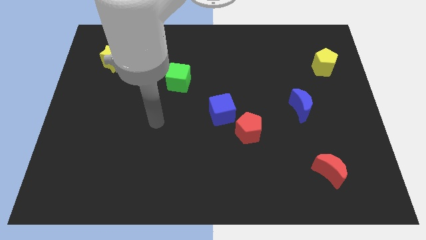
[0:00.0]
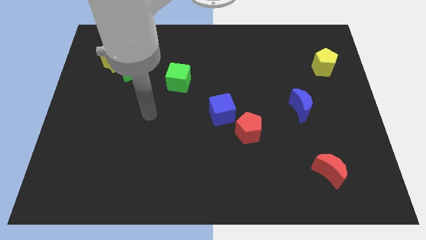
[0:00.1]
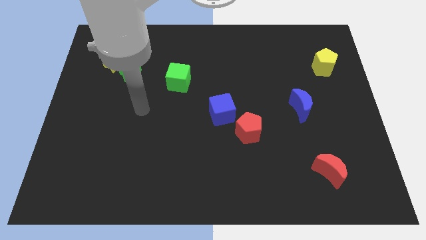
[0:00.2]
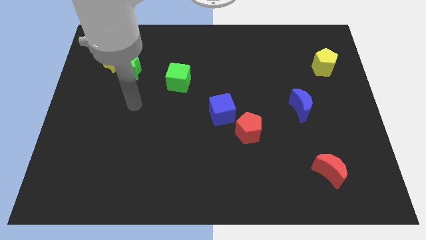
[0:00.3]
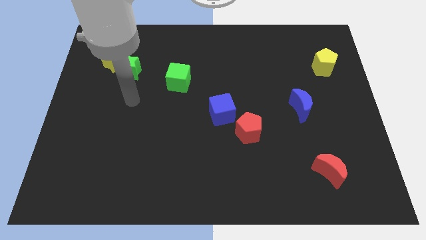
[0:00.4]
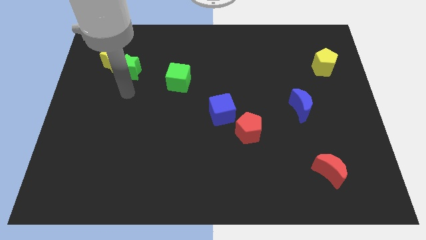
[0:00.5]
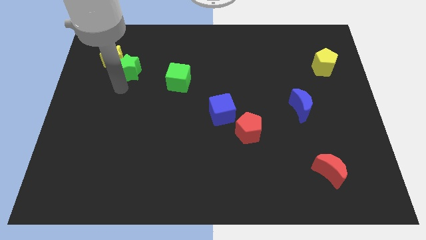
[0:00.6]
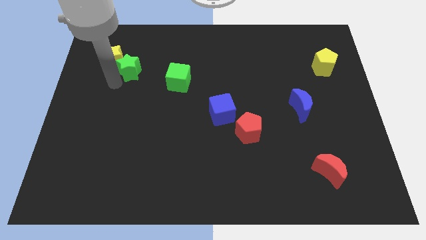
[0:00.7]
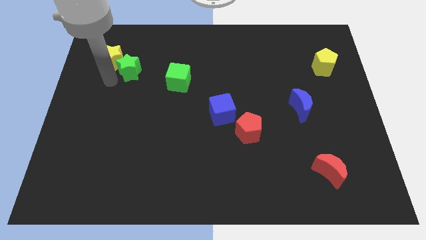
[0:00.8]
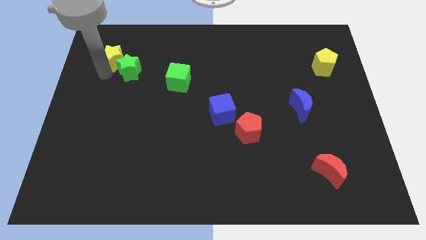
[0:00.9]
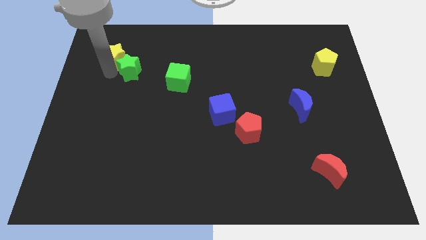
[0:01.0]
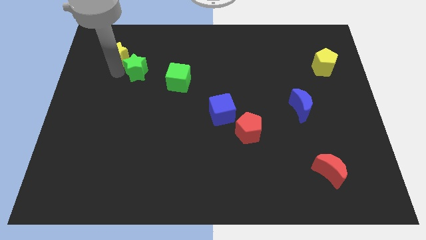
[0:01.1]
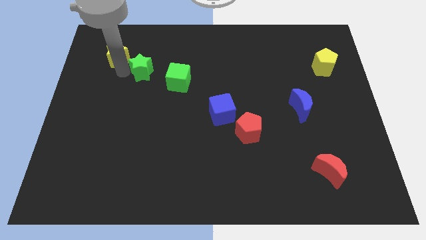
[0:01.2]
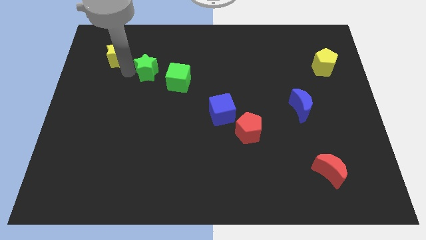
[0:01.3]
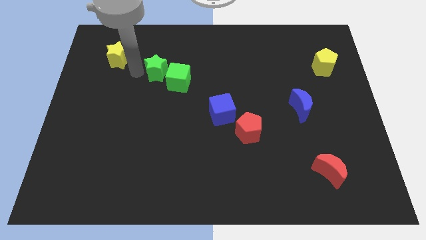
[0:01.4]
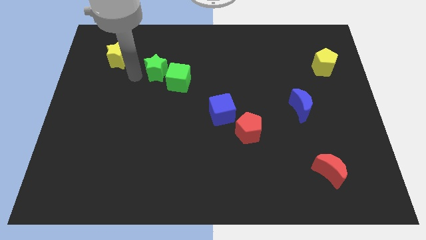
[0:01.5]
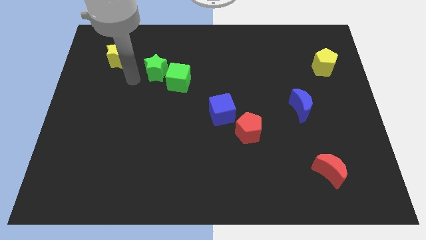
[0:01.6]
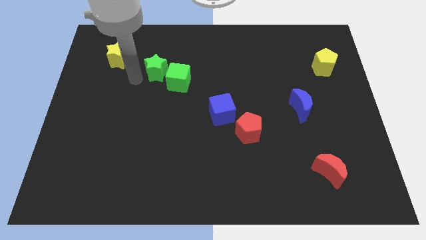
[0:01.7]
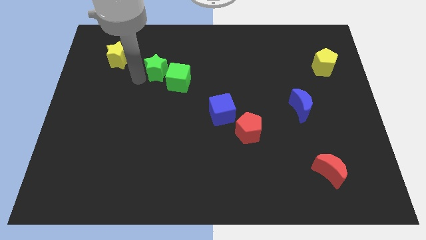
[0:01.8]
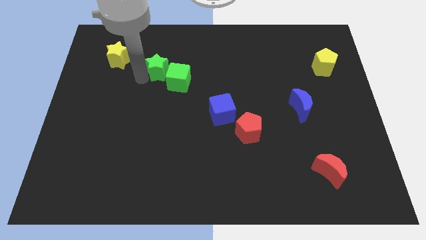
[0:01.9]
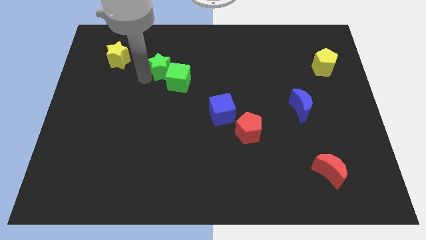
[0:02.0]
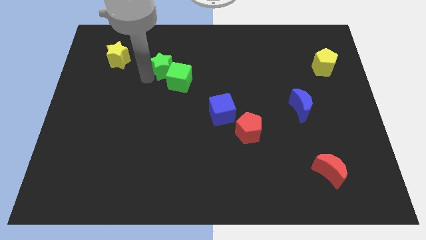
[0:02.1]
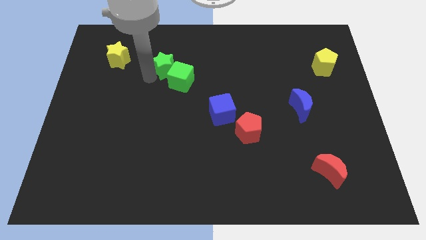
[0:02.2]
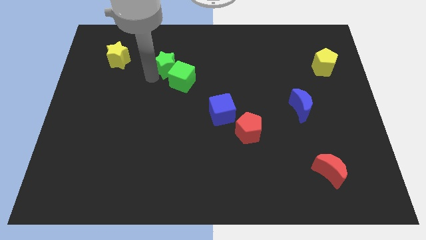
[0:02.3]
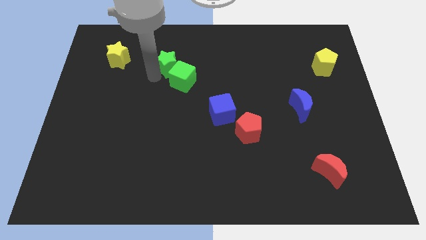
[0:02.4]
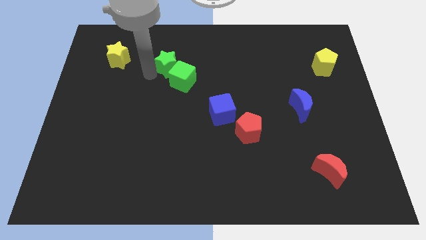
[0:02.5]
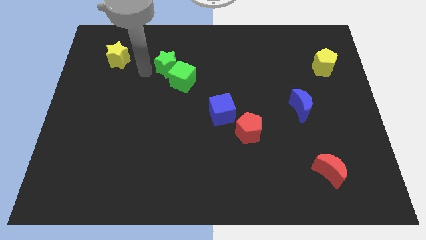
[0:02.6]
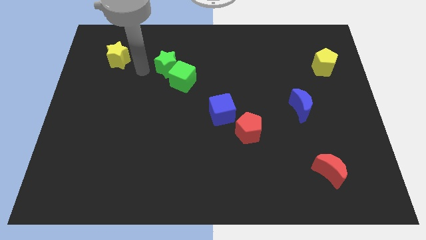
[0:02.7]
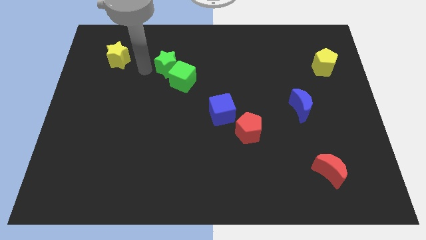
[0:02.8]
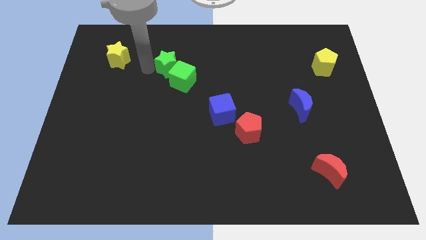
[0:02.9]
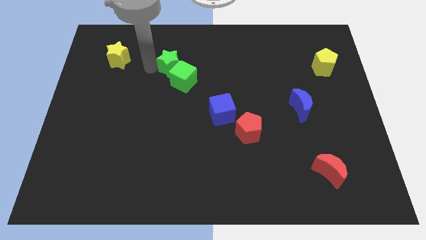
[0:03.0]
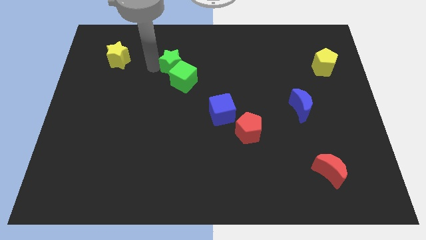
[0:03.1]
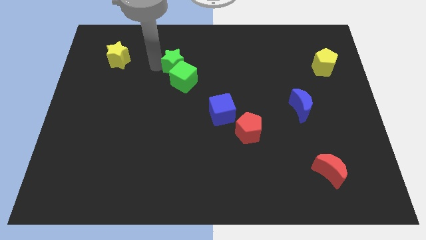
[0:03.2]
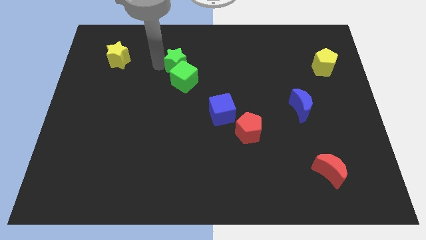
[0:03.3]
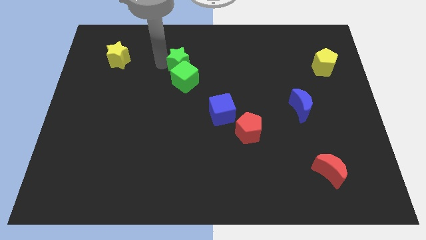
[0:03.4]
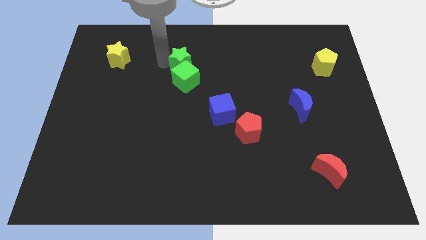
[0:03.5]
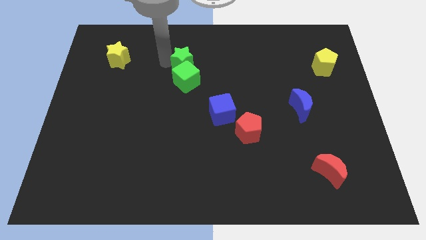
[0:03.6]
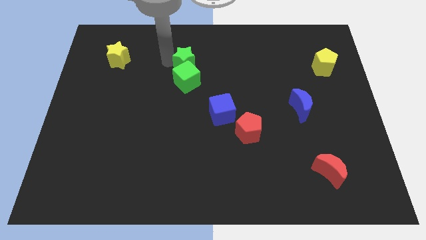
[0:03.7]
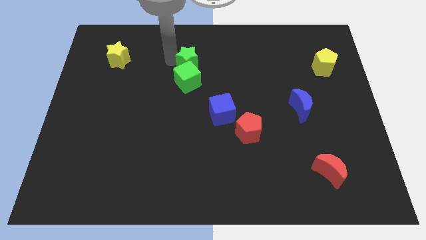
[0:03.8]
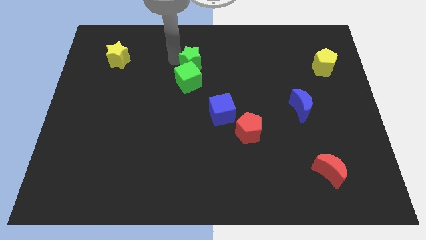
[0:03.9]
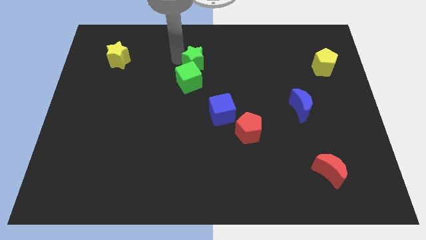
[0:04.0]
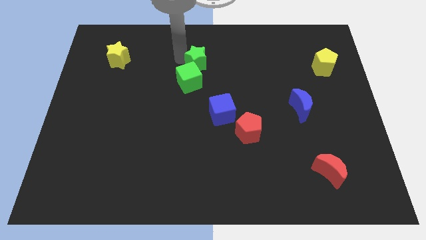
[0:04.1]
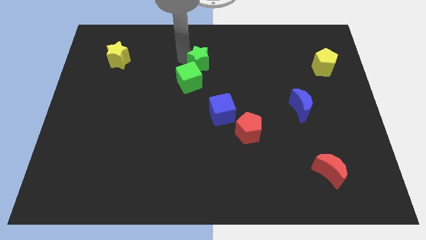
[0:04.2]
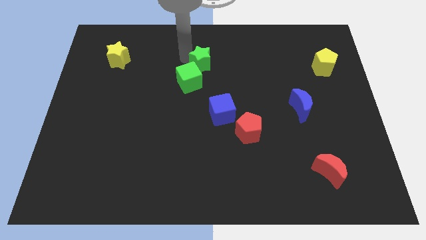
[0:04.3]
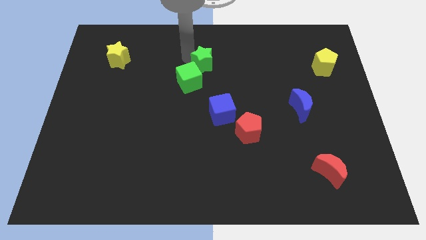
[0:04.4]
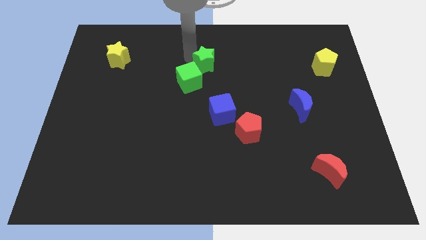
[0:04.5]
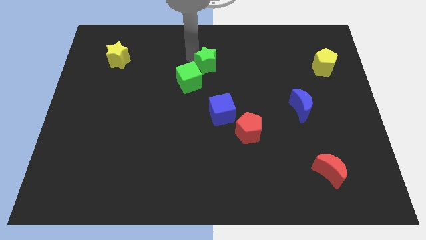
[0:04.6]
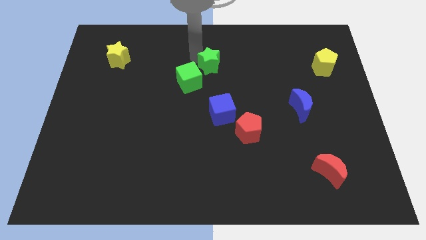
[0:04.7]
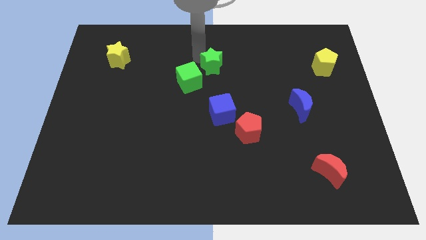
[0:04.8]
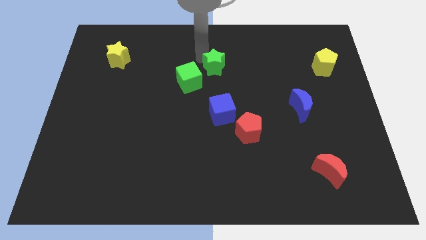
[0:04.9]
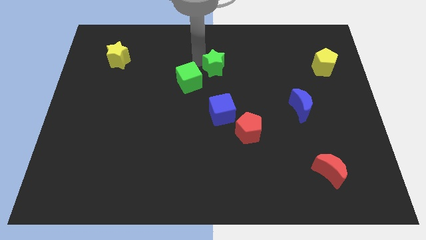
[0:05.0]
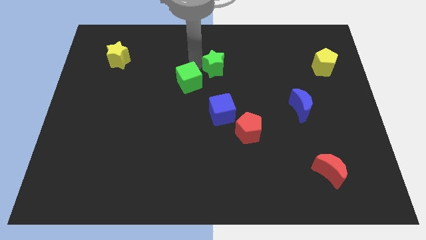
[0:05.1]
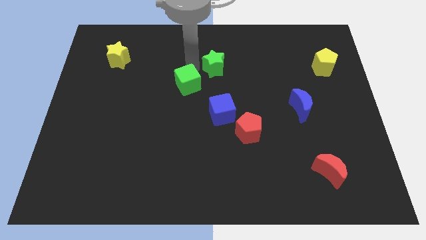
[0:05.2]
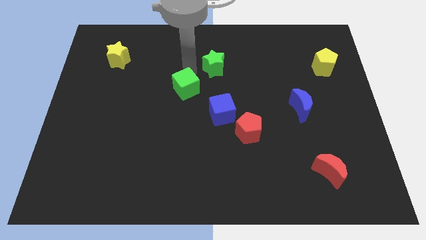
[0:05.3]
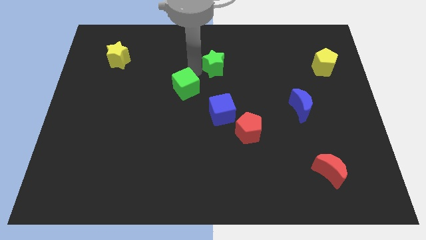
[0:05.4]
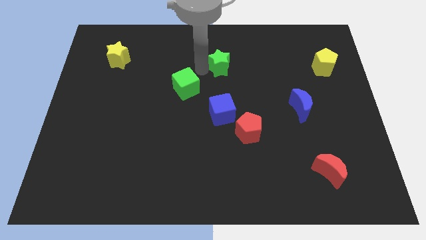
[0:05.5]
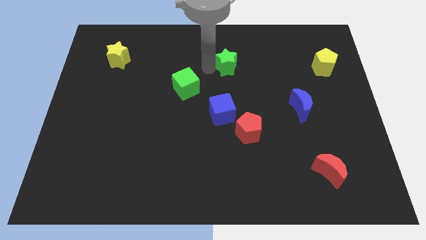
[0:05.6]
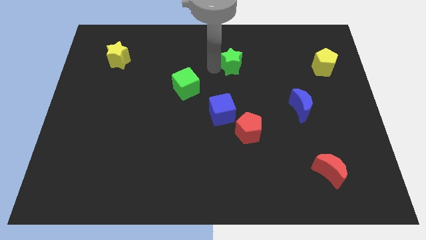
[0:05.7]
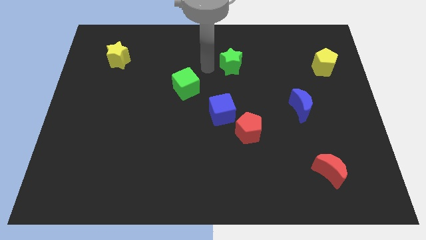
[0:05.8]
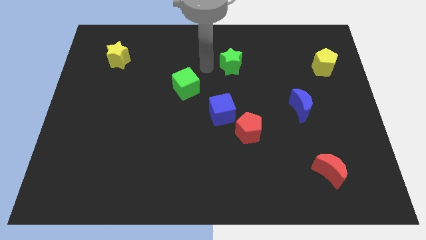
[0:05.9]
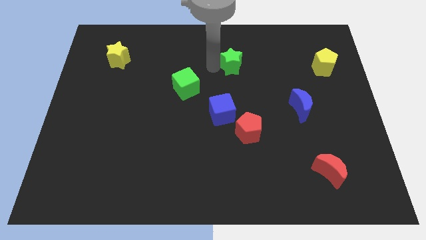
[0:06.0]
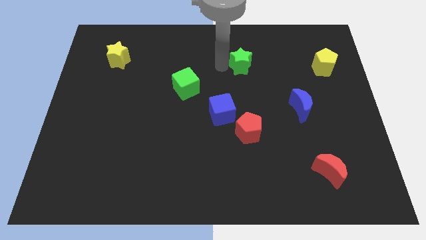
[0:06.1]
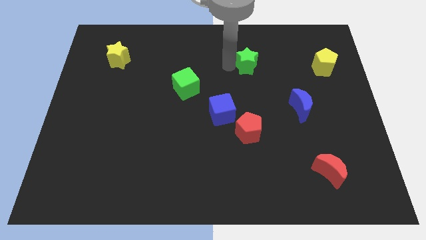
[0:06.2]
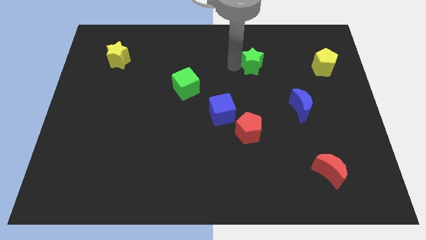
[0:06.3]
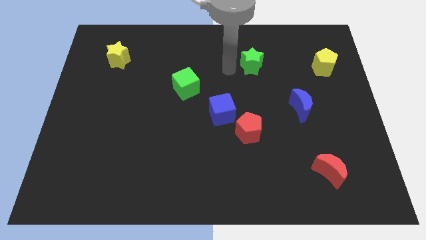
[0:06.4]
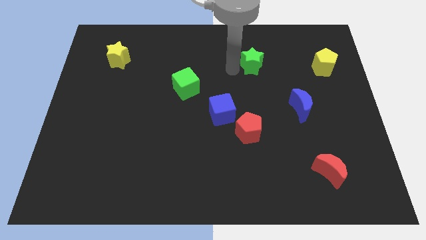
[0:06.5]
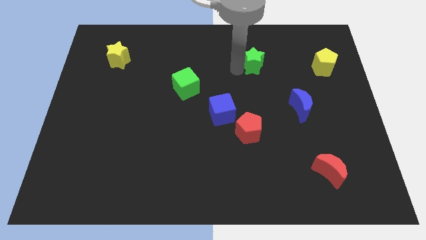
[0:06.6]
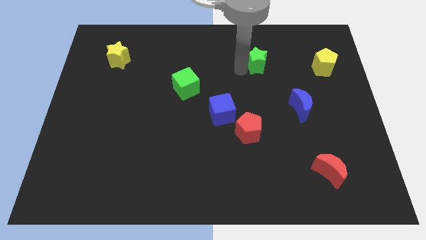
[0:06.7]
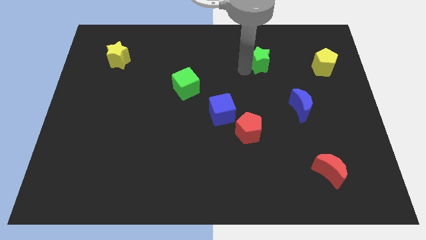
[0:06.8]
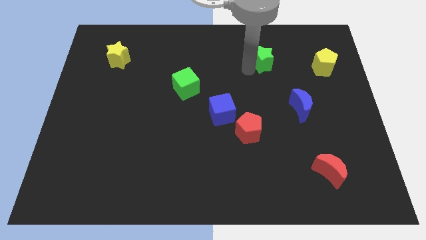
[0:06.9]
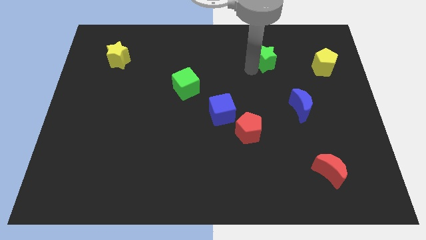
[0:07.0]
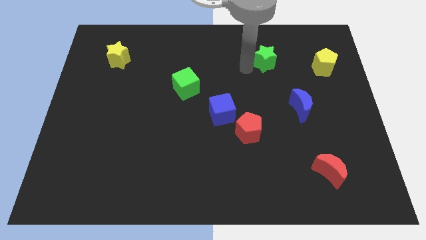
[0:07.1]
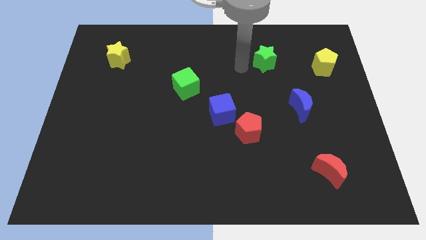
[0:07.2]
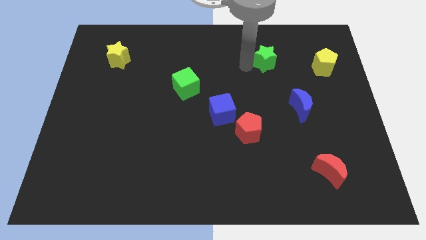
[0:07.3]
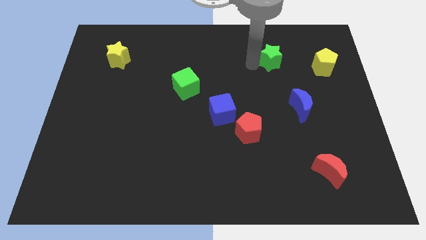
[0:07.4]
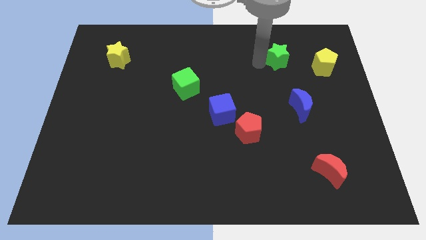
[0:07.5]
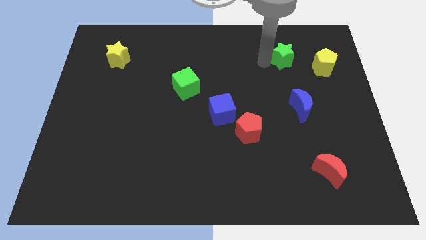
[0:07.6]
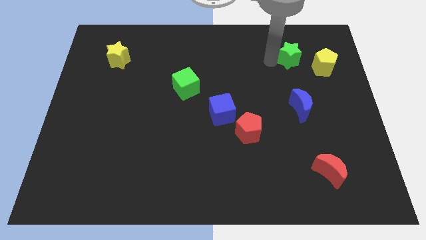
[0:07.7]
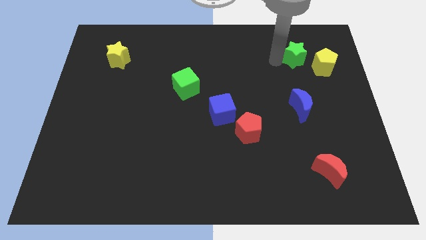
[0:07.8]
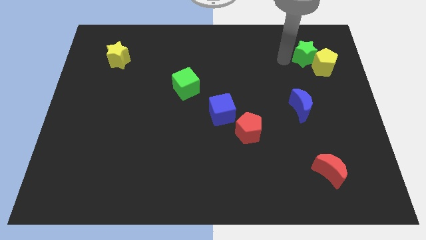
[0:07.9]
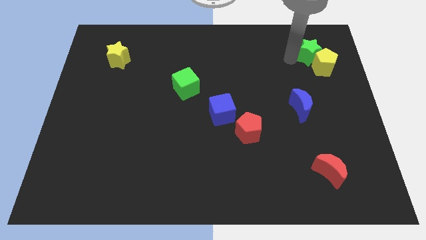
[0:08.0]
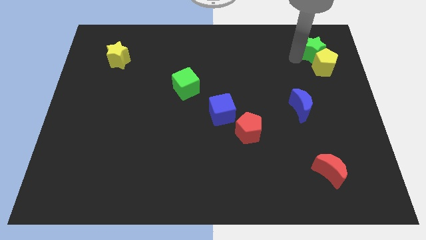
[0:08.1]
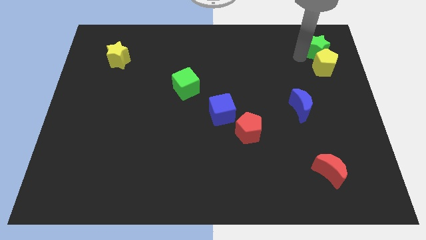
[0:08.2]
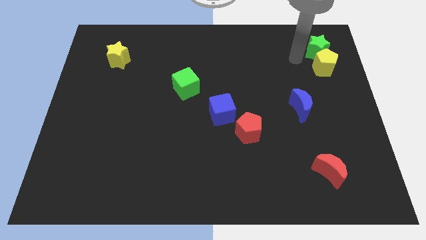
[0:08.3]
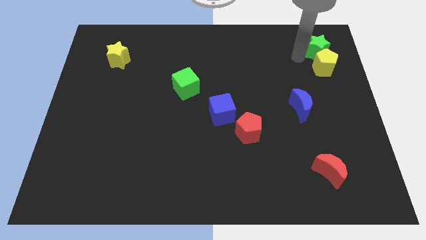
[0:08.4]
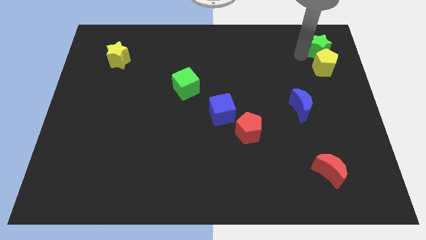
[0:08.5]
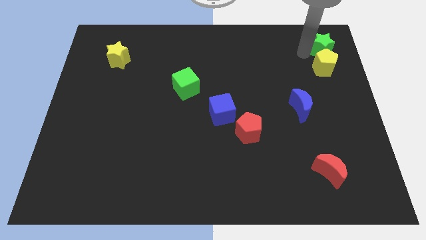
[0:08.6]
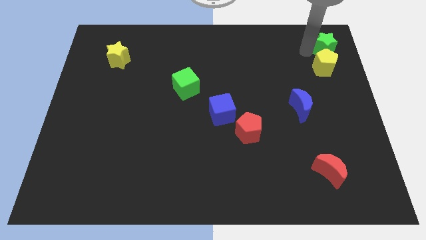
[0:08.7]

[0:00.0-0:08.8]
push the green star to the top right
